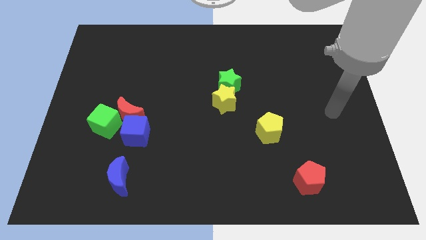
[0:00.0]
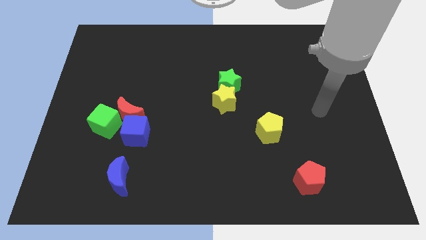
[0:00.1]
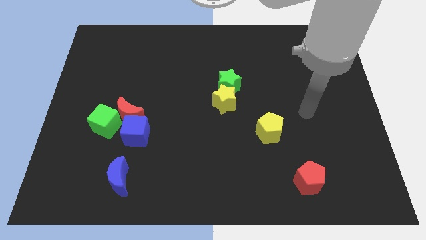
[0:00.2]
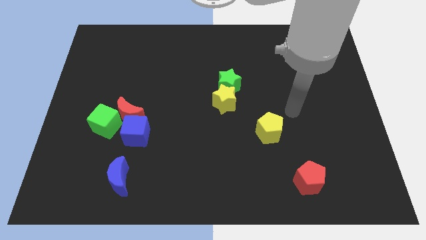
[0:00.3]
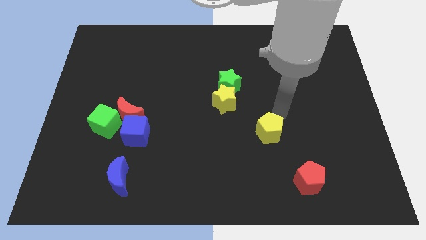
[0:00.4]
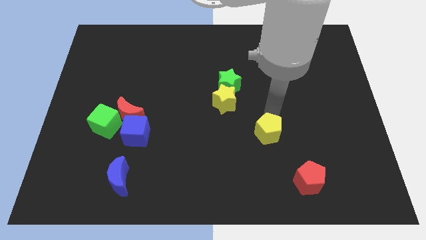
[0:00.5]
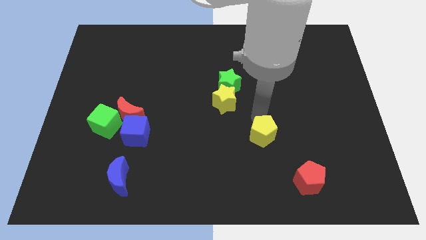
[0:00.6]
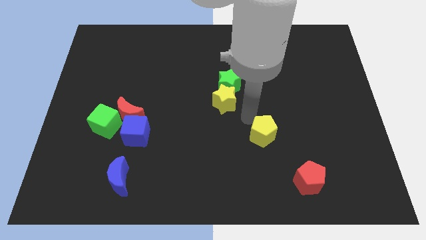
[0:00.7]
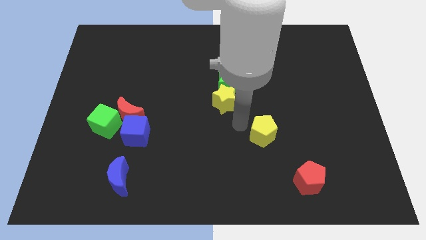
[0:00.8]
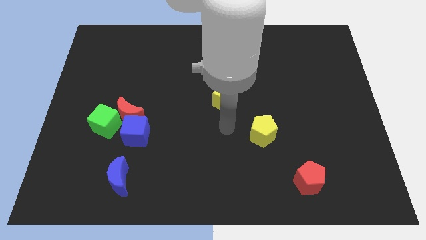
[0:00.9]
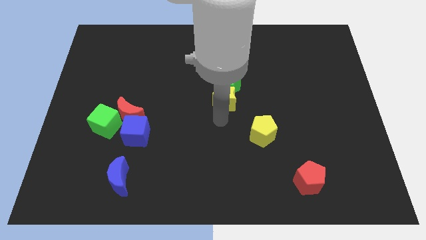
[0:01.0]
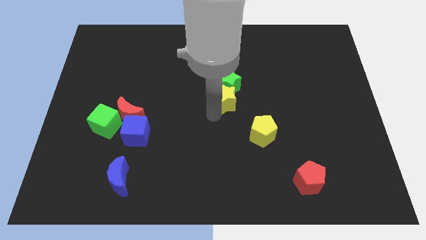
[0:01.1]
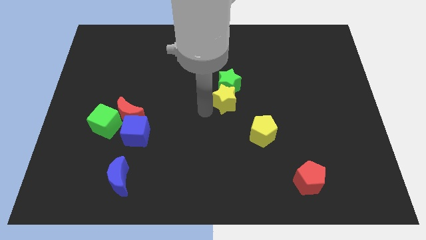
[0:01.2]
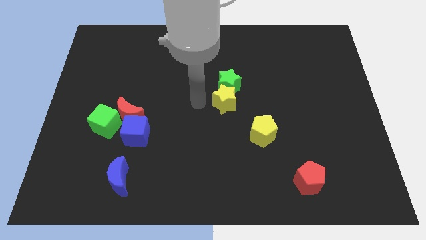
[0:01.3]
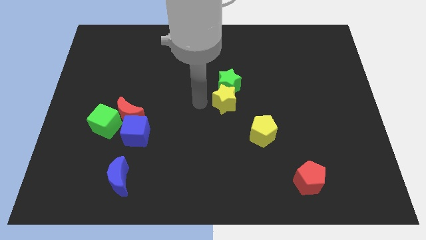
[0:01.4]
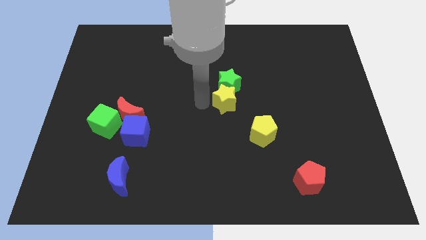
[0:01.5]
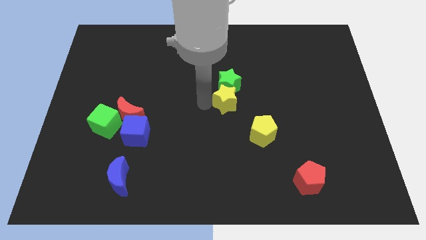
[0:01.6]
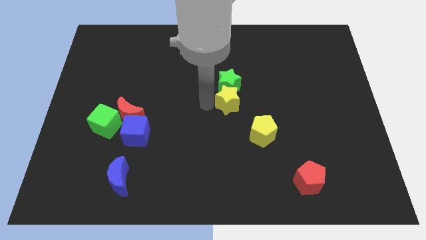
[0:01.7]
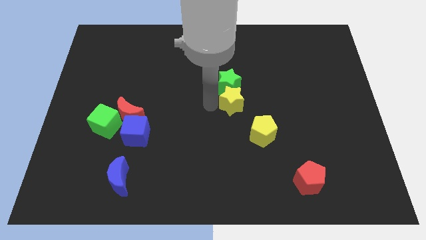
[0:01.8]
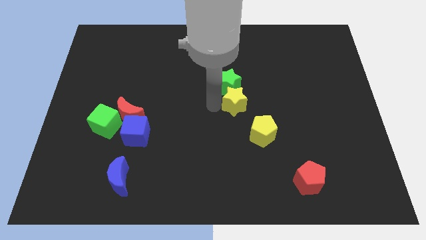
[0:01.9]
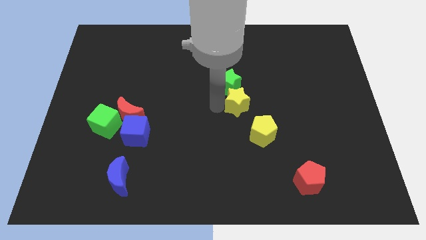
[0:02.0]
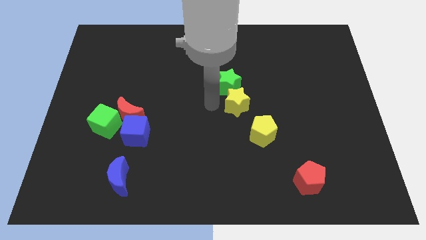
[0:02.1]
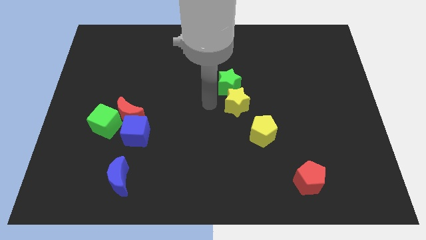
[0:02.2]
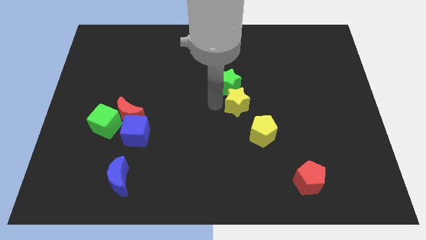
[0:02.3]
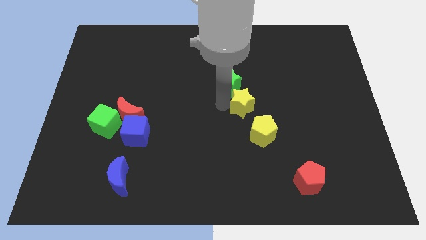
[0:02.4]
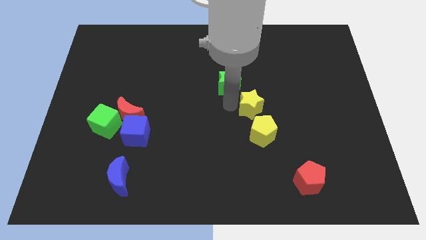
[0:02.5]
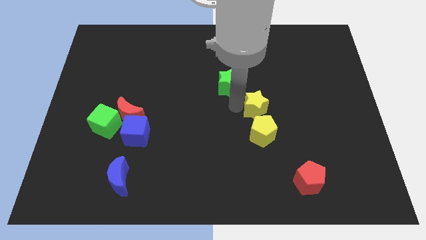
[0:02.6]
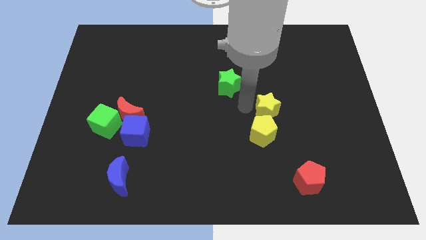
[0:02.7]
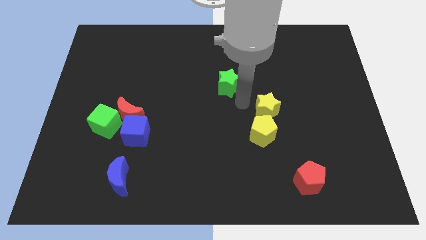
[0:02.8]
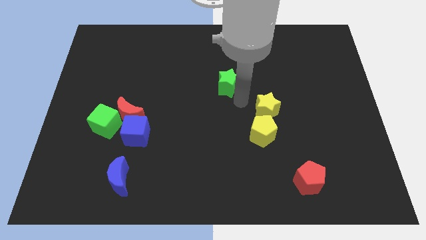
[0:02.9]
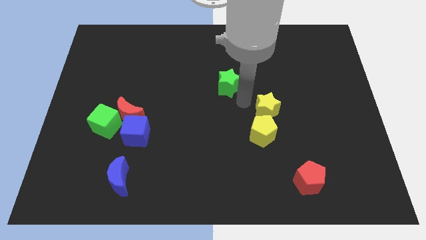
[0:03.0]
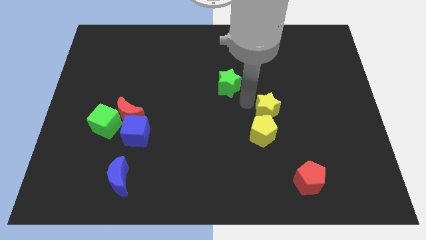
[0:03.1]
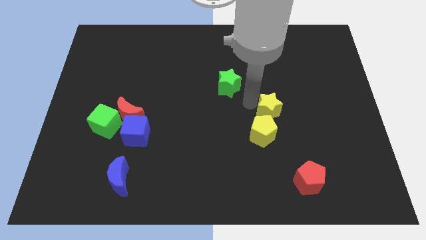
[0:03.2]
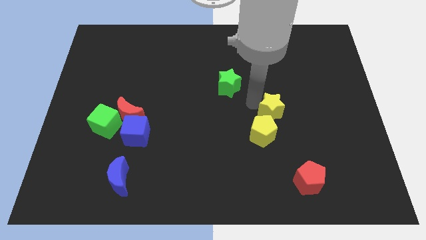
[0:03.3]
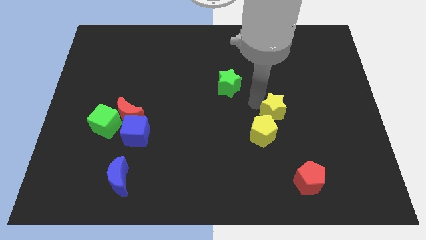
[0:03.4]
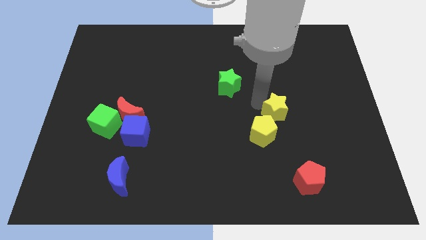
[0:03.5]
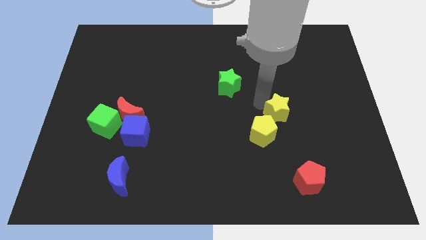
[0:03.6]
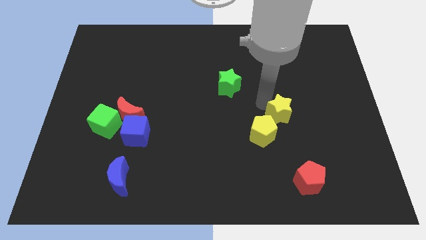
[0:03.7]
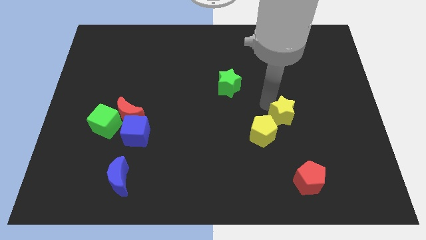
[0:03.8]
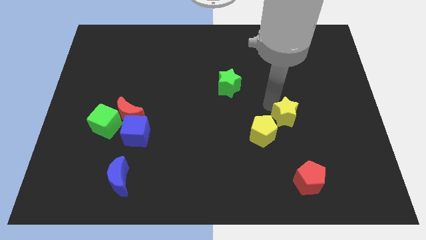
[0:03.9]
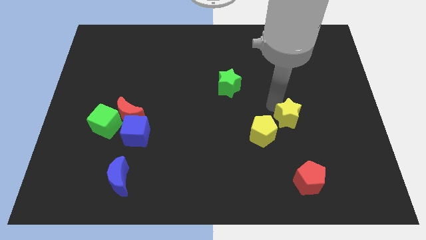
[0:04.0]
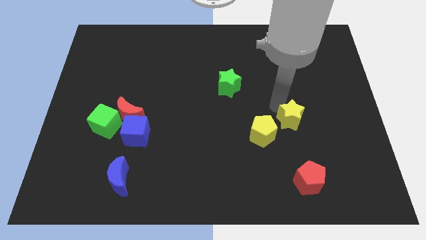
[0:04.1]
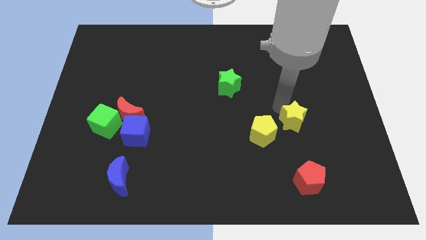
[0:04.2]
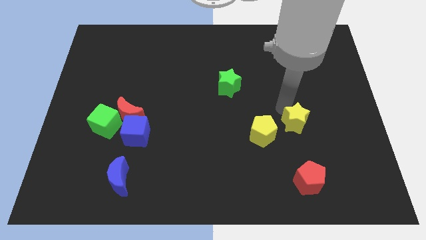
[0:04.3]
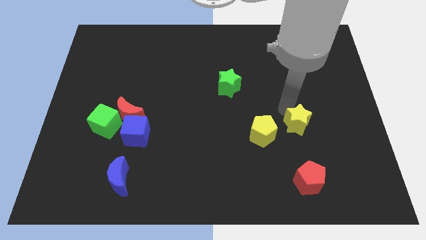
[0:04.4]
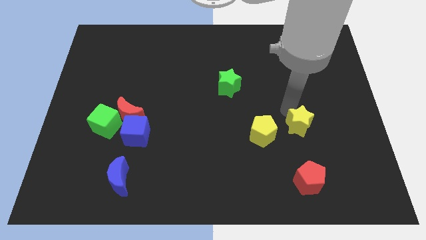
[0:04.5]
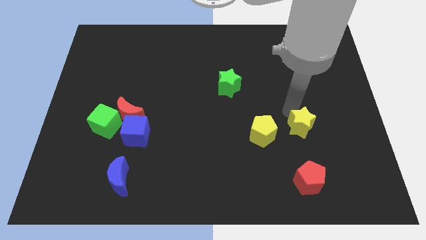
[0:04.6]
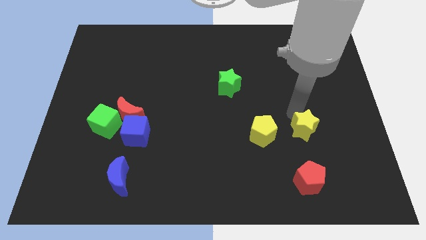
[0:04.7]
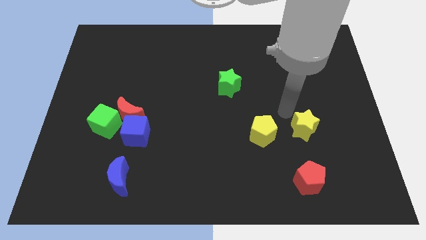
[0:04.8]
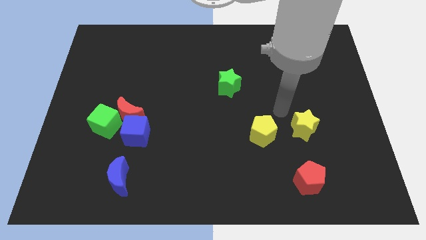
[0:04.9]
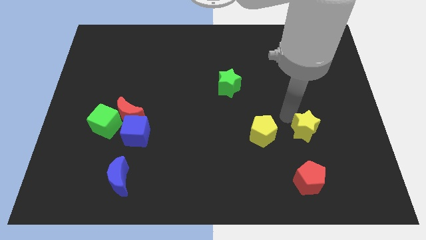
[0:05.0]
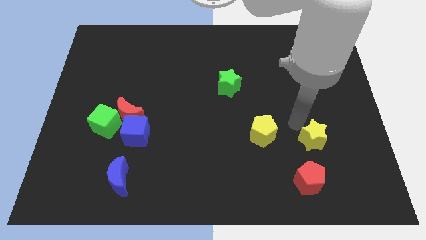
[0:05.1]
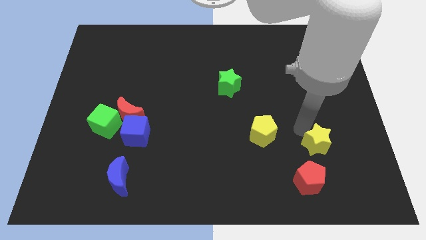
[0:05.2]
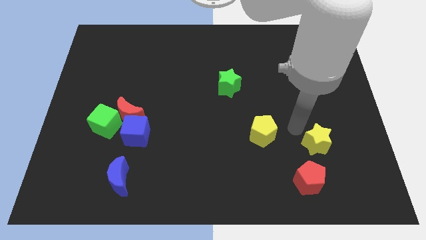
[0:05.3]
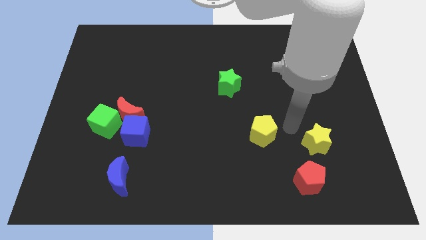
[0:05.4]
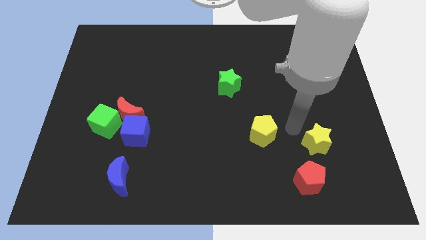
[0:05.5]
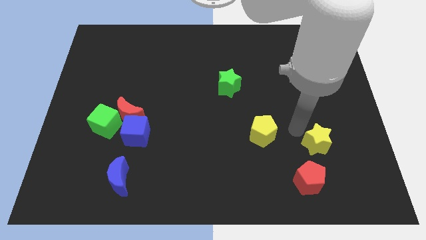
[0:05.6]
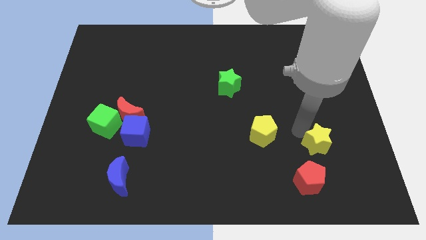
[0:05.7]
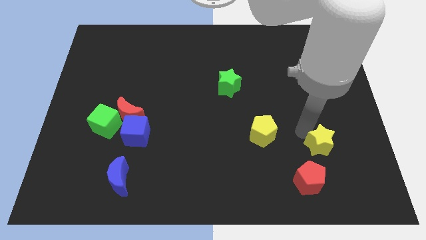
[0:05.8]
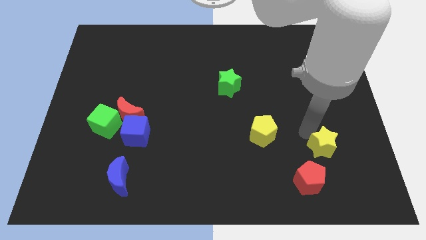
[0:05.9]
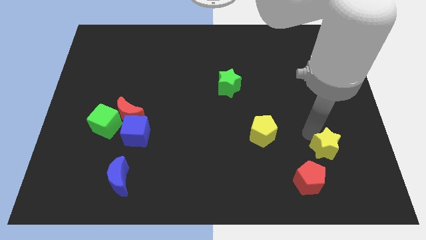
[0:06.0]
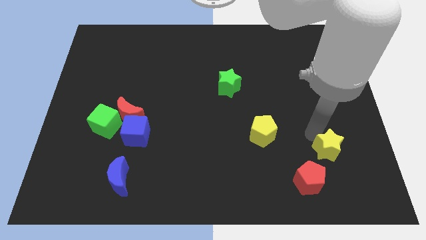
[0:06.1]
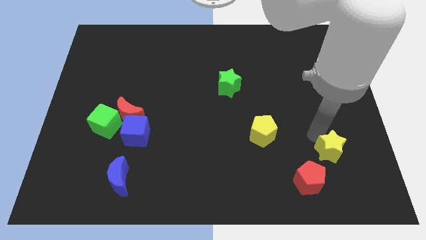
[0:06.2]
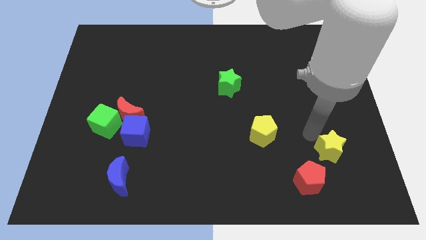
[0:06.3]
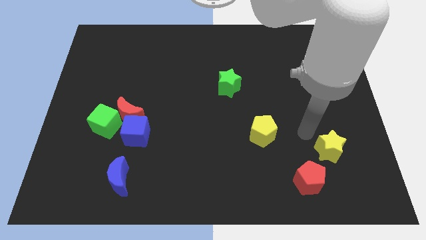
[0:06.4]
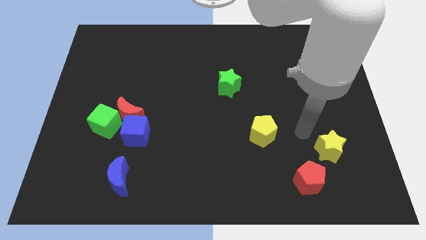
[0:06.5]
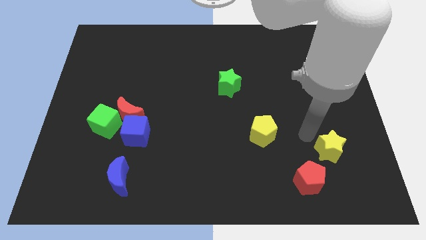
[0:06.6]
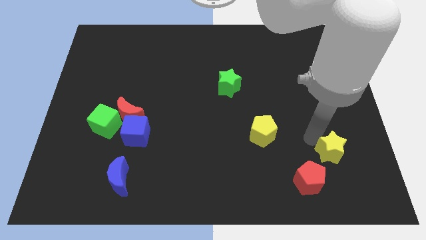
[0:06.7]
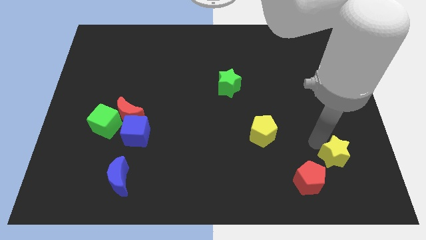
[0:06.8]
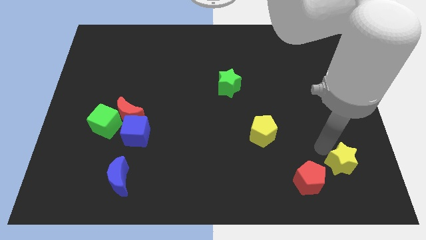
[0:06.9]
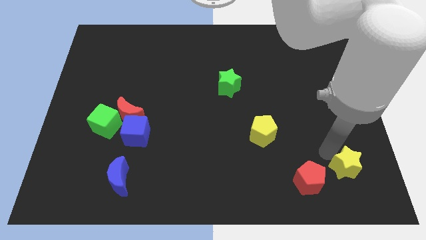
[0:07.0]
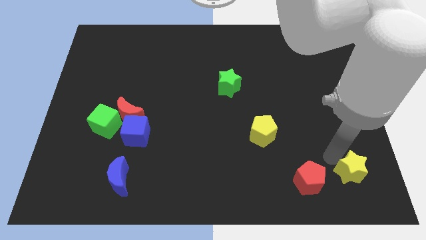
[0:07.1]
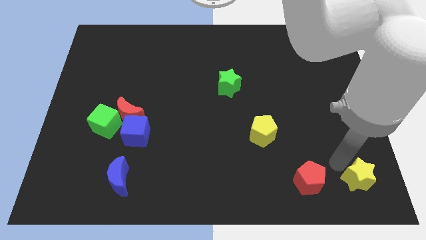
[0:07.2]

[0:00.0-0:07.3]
slide the yellow star to the bottom right corner
